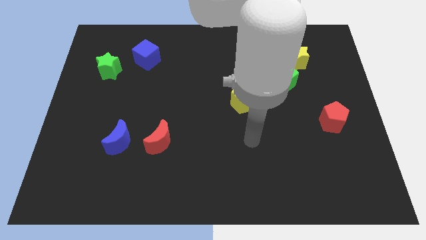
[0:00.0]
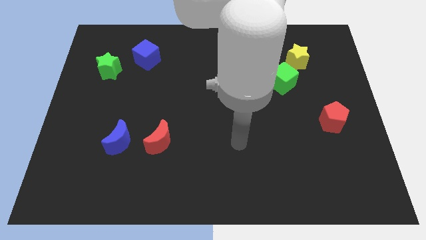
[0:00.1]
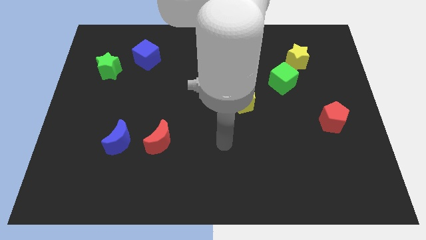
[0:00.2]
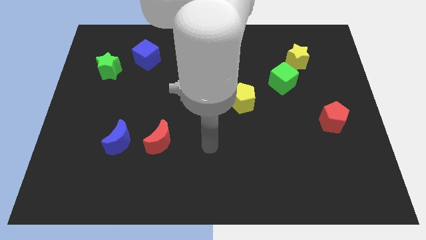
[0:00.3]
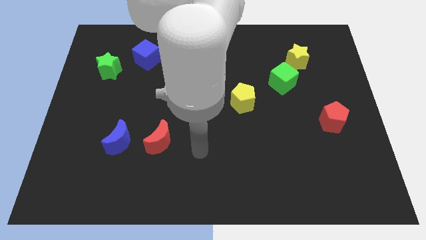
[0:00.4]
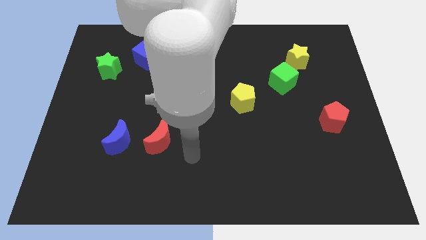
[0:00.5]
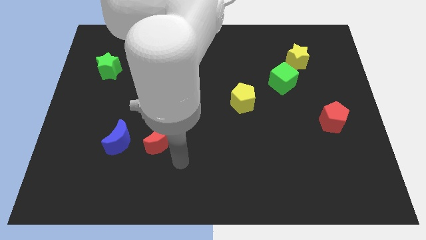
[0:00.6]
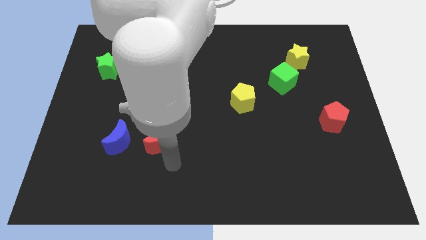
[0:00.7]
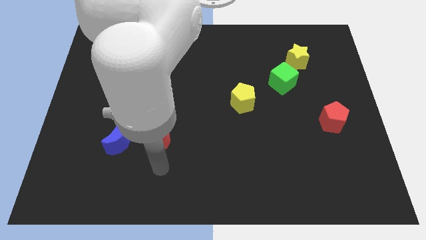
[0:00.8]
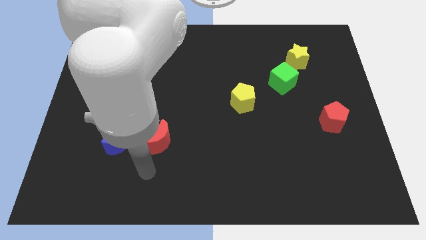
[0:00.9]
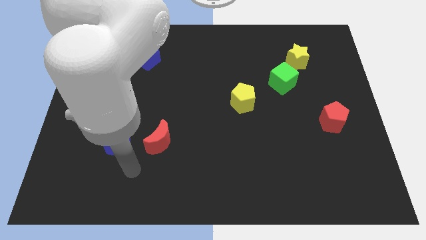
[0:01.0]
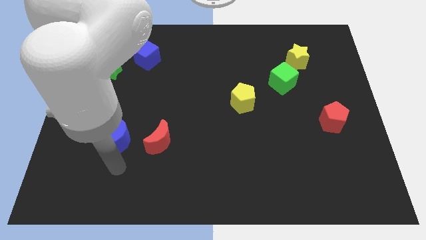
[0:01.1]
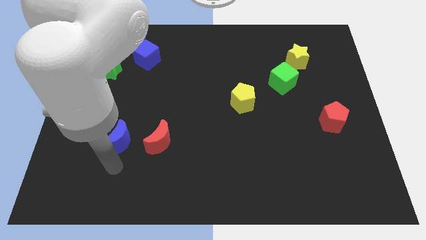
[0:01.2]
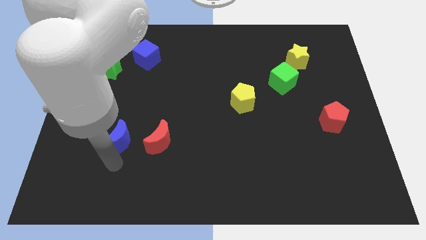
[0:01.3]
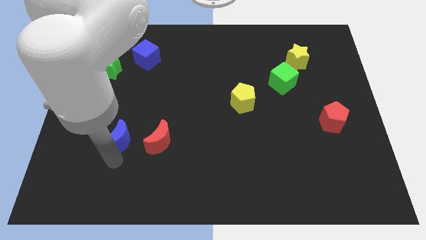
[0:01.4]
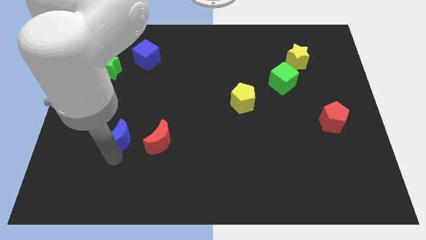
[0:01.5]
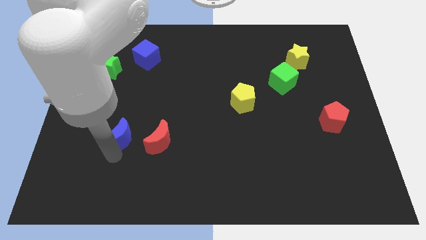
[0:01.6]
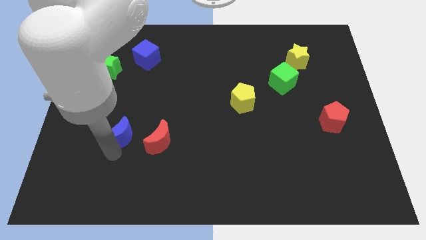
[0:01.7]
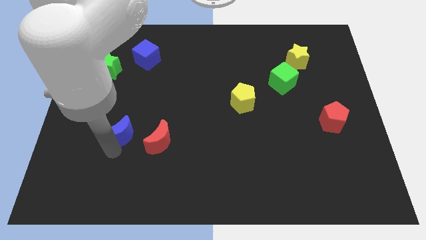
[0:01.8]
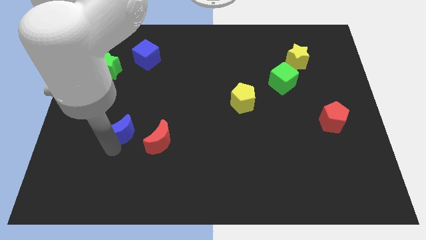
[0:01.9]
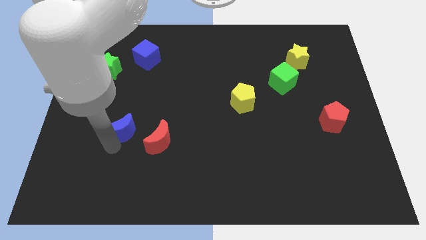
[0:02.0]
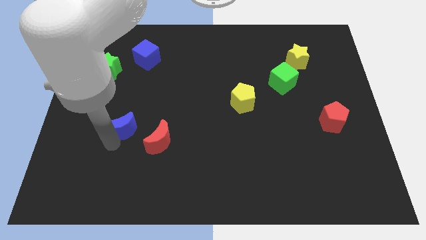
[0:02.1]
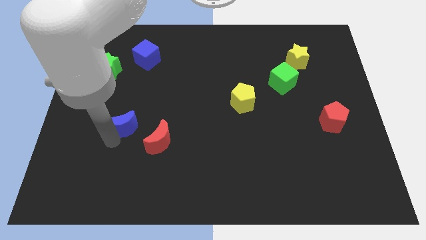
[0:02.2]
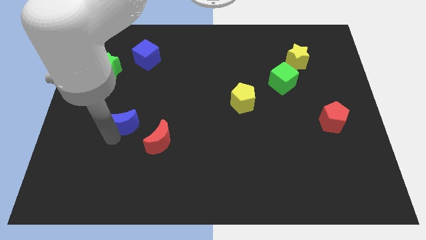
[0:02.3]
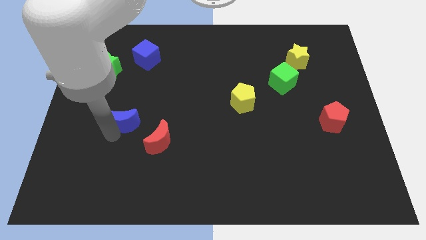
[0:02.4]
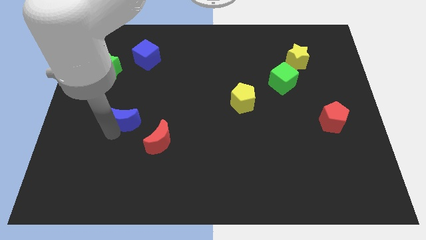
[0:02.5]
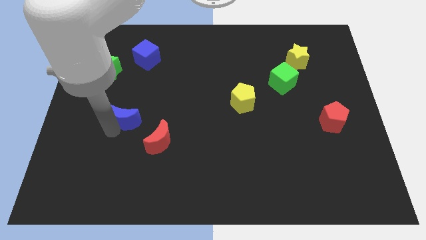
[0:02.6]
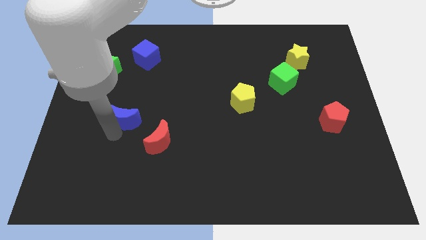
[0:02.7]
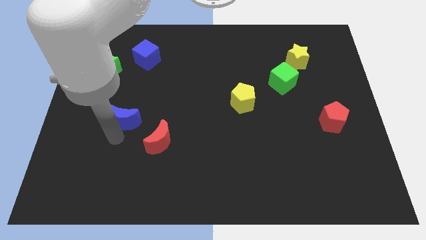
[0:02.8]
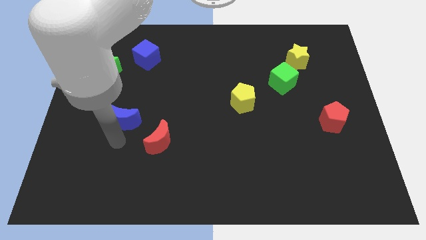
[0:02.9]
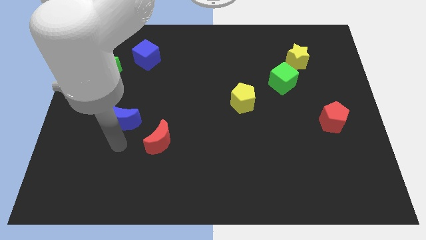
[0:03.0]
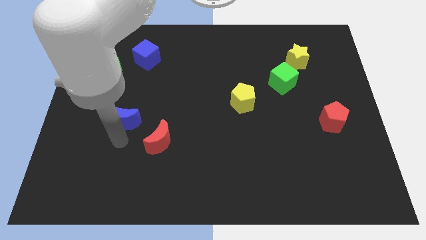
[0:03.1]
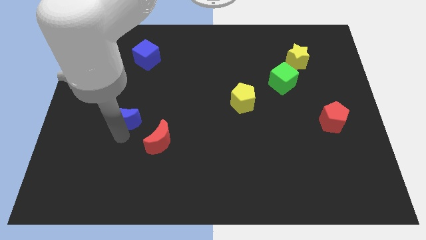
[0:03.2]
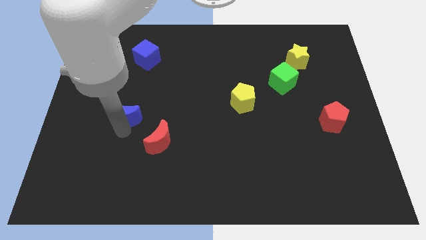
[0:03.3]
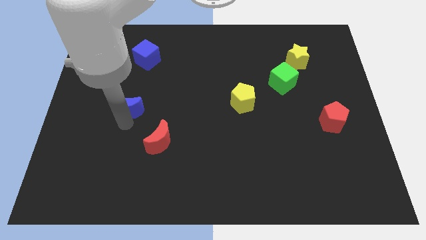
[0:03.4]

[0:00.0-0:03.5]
slightly slide the blue moon upwards

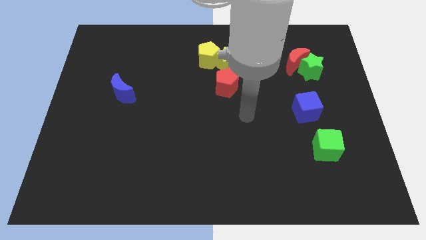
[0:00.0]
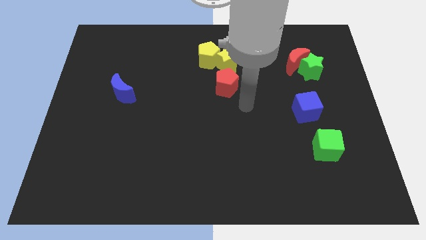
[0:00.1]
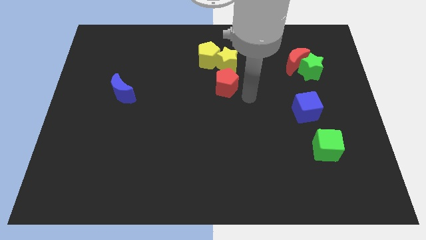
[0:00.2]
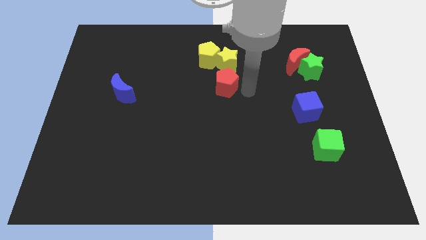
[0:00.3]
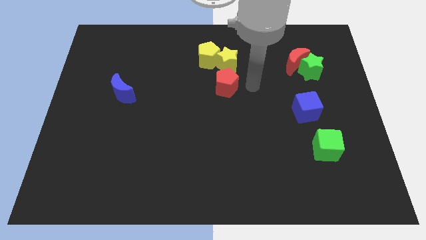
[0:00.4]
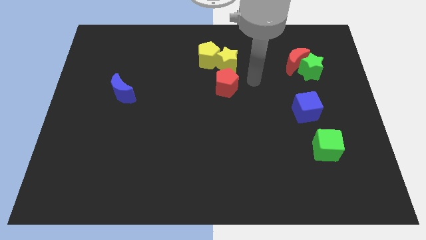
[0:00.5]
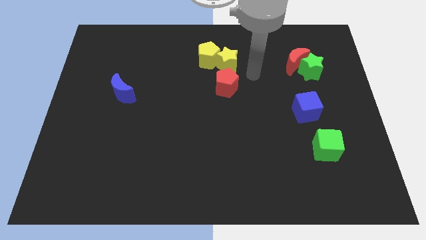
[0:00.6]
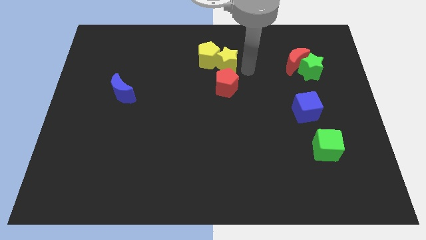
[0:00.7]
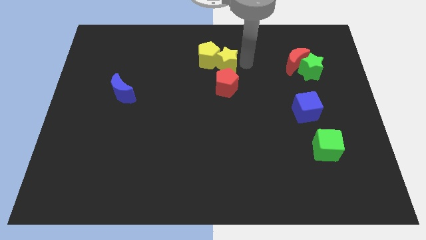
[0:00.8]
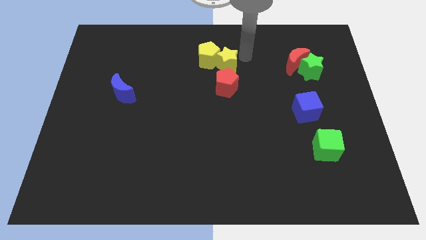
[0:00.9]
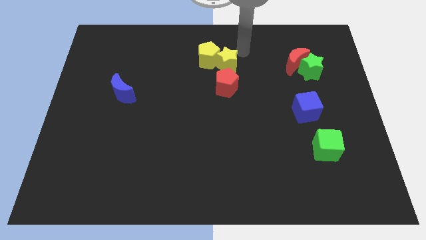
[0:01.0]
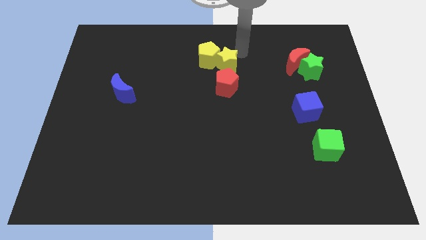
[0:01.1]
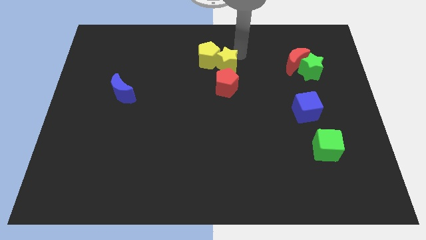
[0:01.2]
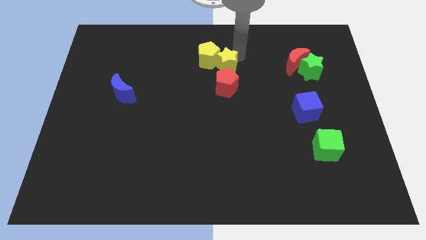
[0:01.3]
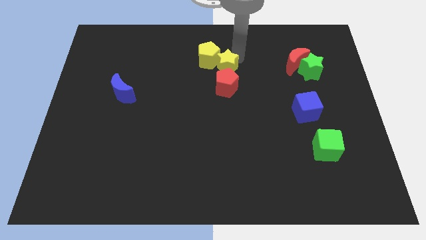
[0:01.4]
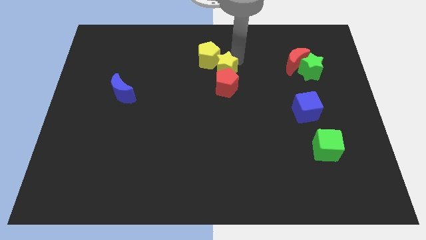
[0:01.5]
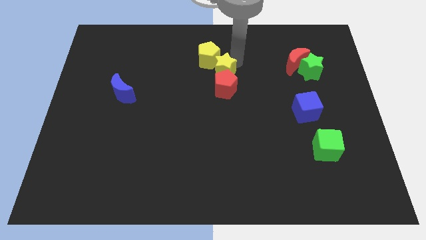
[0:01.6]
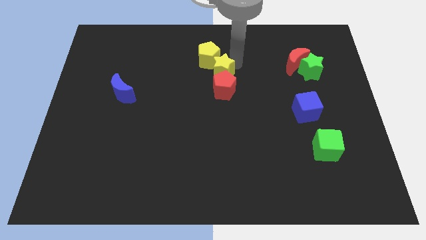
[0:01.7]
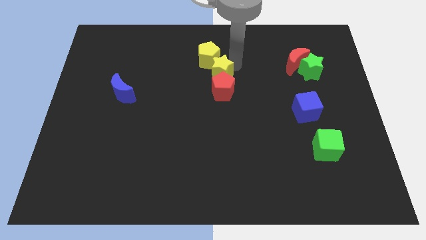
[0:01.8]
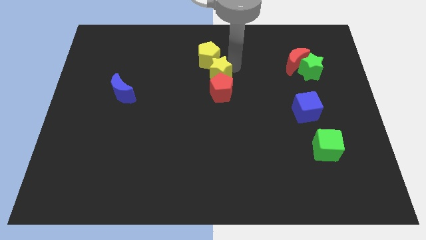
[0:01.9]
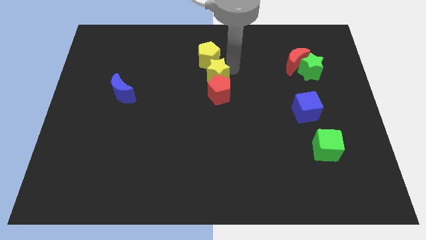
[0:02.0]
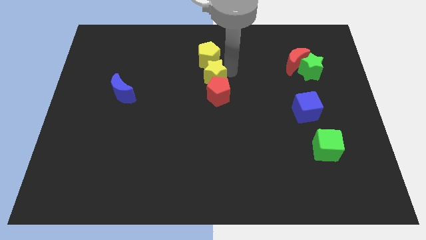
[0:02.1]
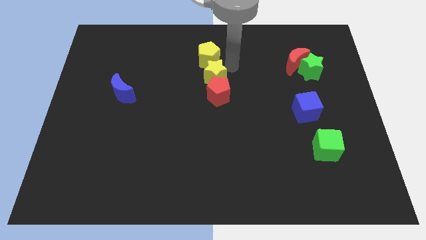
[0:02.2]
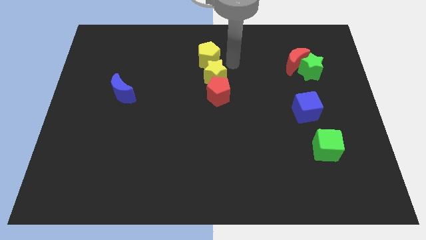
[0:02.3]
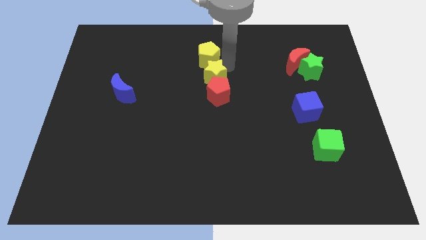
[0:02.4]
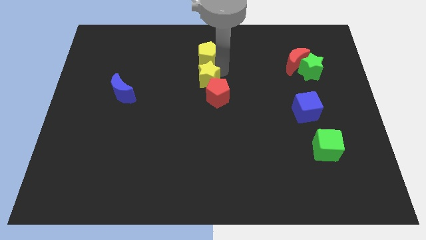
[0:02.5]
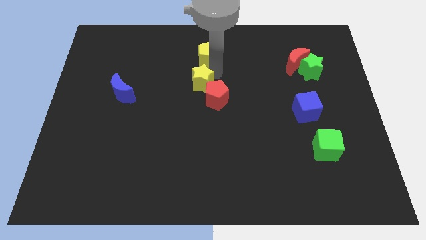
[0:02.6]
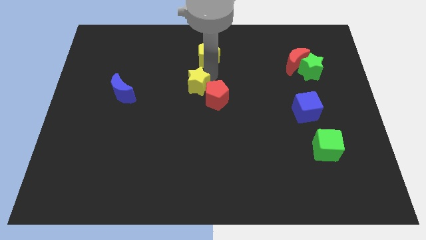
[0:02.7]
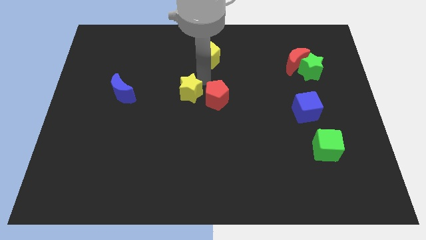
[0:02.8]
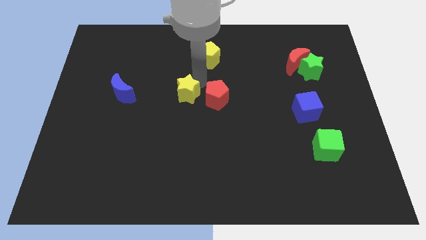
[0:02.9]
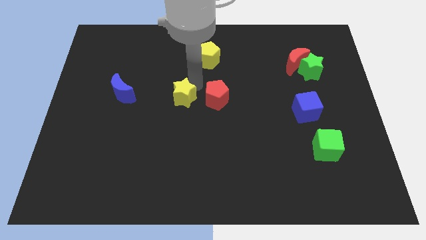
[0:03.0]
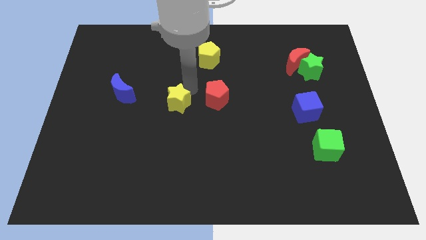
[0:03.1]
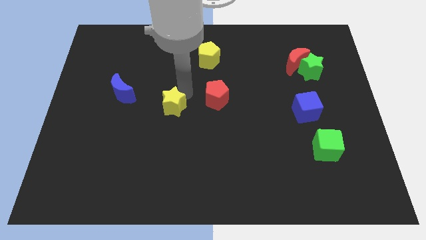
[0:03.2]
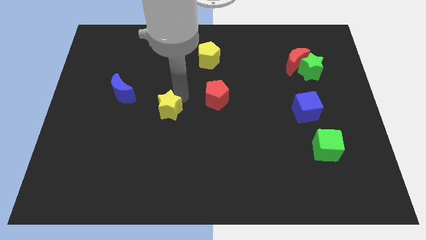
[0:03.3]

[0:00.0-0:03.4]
slide the yellow star diagonally downwards and to the left

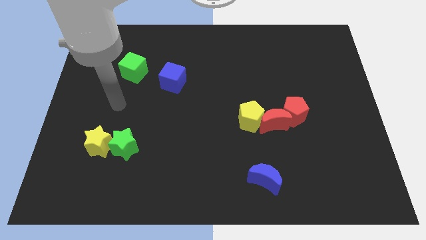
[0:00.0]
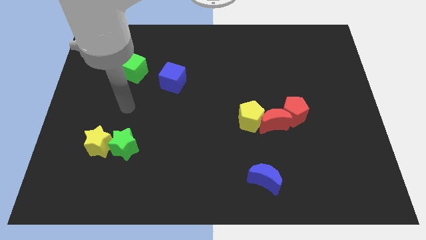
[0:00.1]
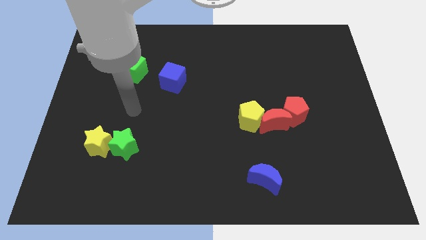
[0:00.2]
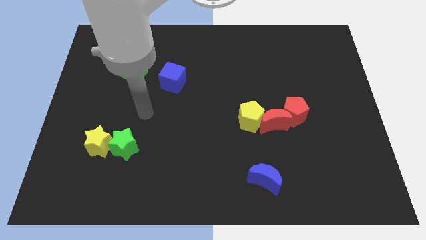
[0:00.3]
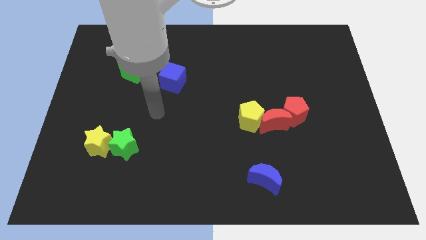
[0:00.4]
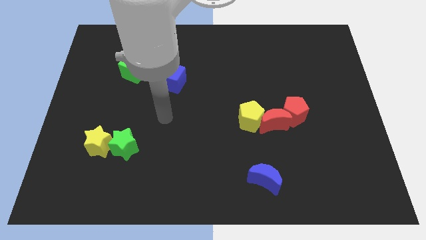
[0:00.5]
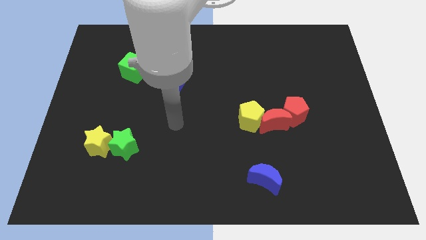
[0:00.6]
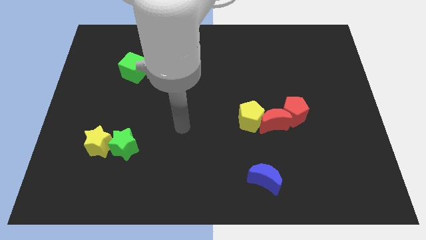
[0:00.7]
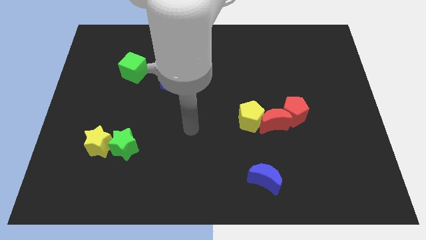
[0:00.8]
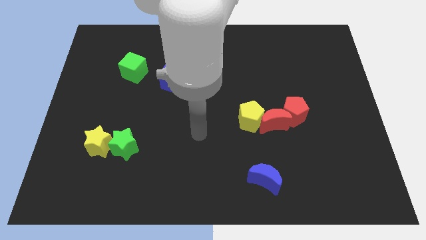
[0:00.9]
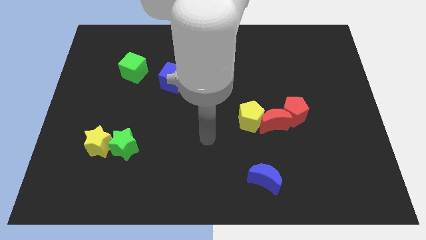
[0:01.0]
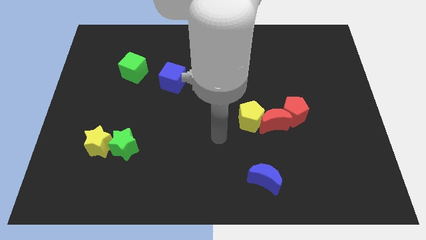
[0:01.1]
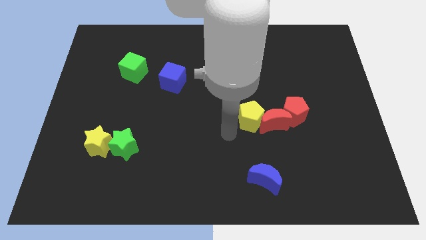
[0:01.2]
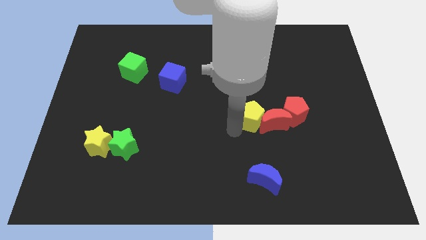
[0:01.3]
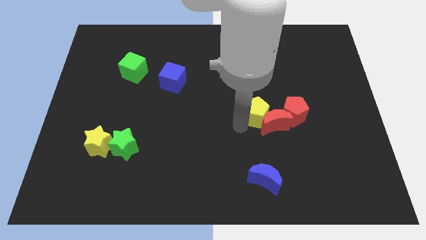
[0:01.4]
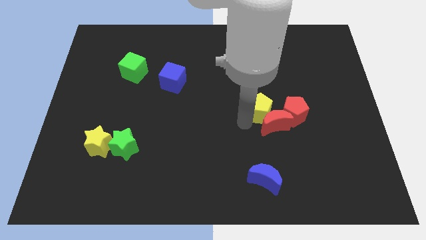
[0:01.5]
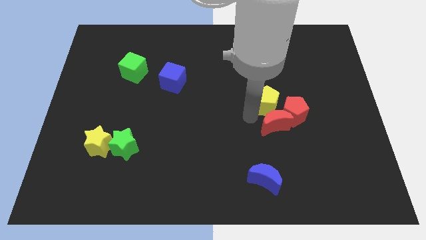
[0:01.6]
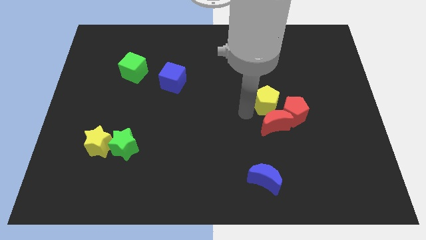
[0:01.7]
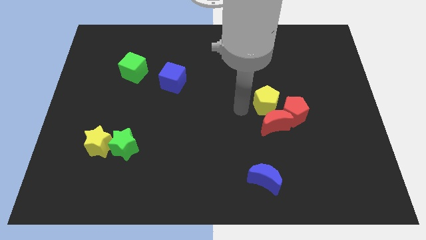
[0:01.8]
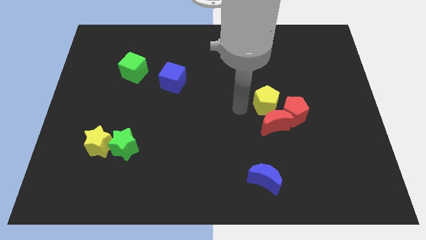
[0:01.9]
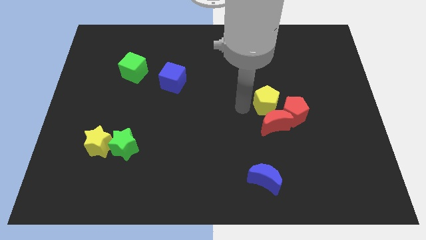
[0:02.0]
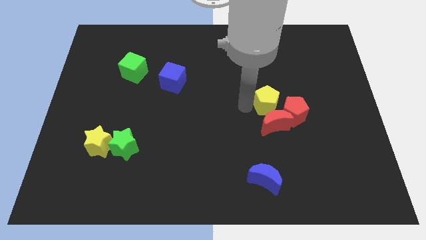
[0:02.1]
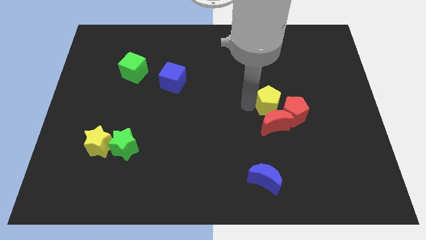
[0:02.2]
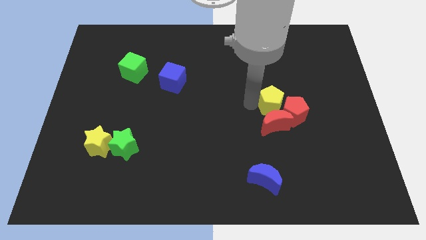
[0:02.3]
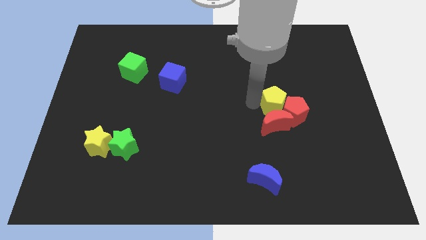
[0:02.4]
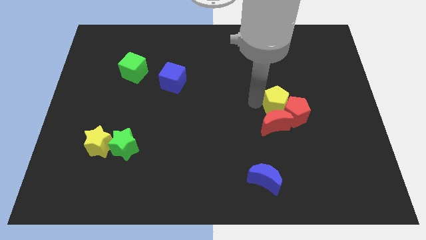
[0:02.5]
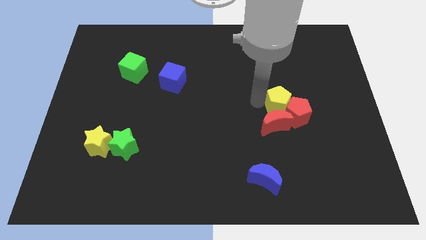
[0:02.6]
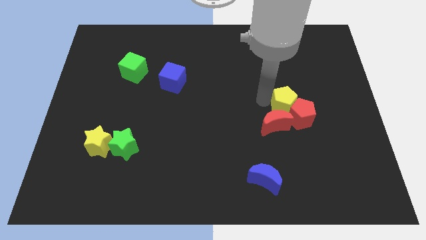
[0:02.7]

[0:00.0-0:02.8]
slightly slide the yellow pentagon right
